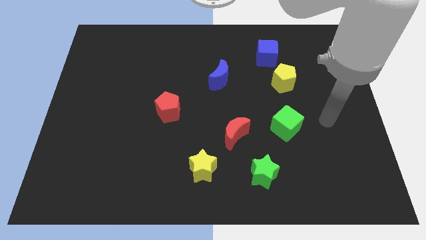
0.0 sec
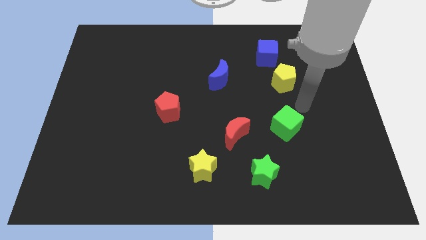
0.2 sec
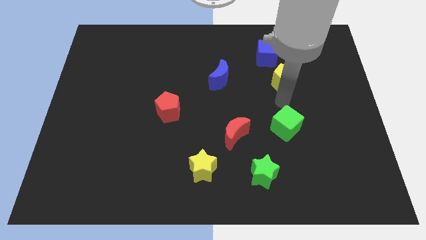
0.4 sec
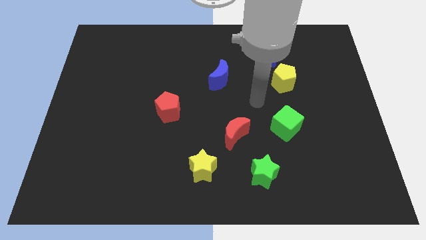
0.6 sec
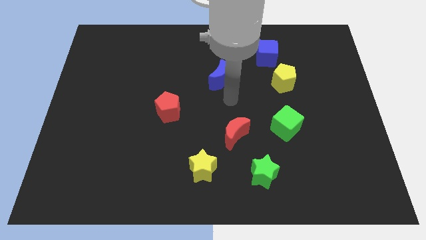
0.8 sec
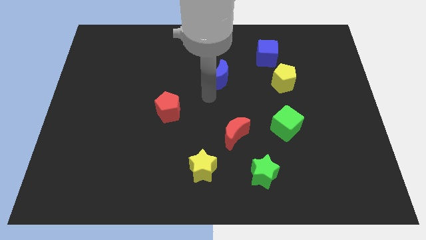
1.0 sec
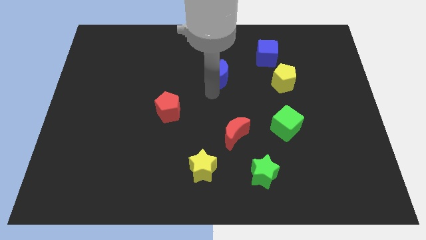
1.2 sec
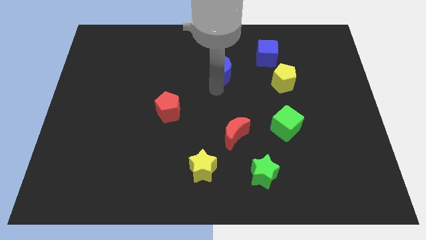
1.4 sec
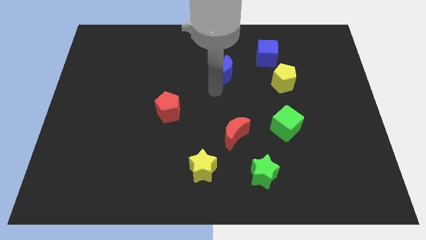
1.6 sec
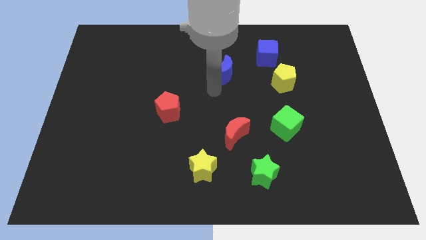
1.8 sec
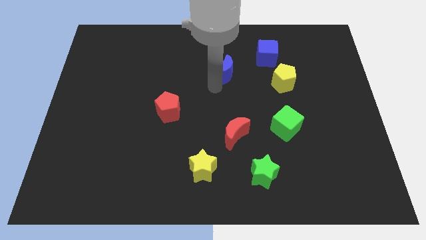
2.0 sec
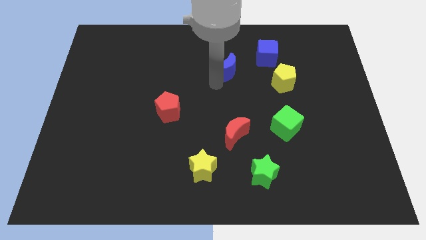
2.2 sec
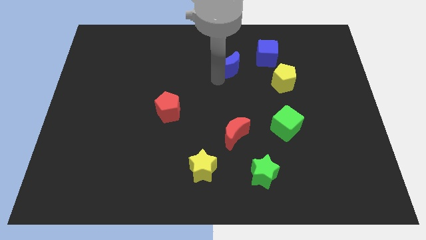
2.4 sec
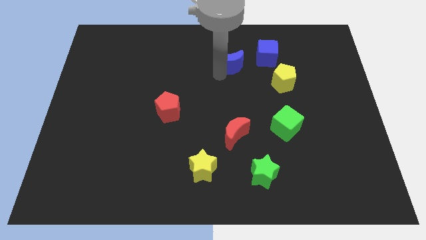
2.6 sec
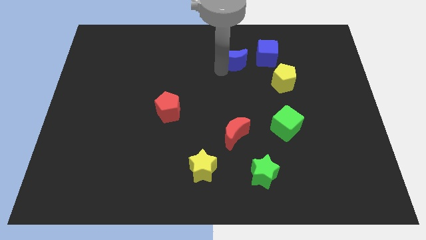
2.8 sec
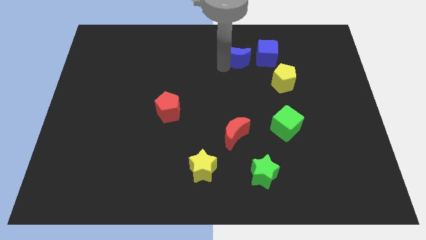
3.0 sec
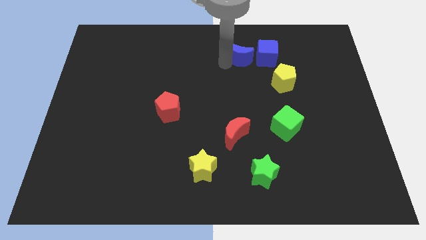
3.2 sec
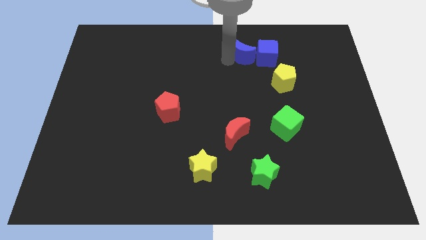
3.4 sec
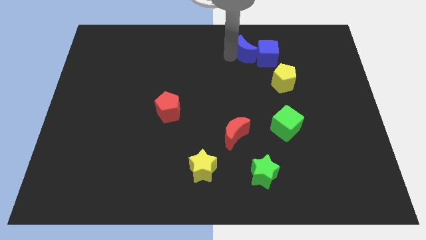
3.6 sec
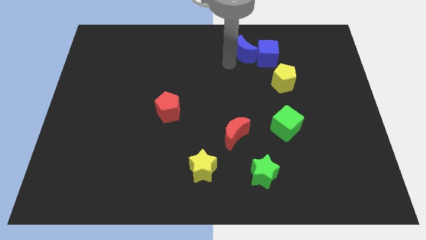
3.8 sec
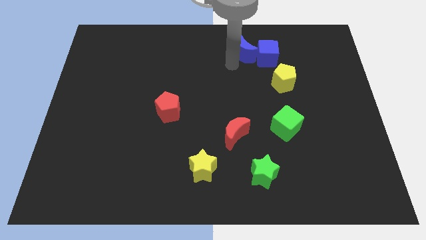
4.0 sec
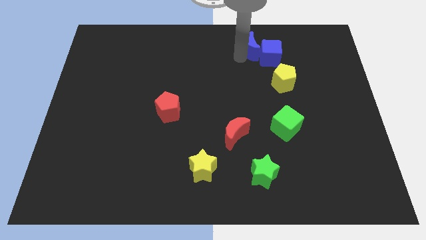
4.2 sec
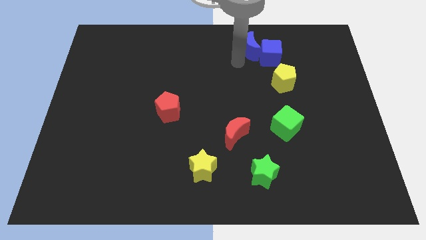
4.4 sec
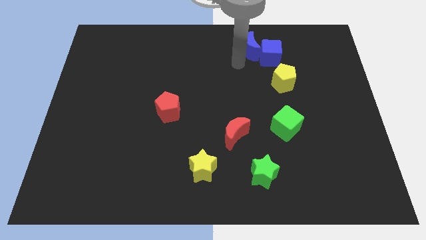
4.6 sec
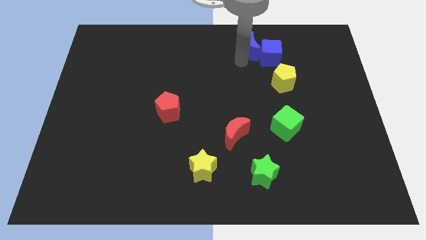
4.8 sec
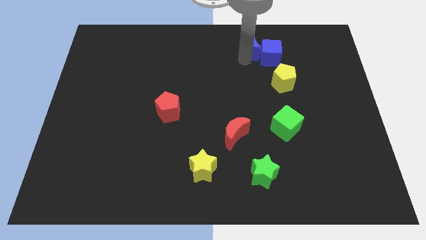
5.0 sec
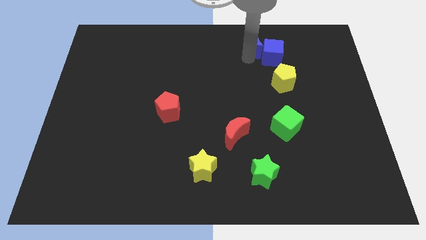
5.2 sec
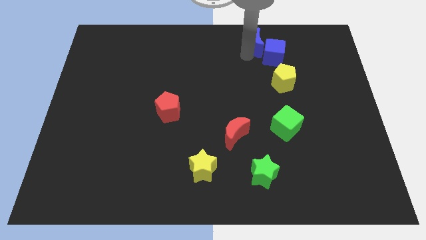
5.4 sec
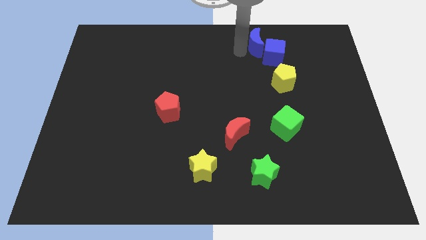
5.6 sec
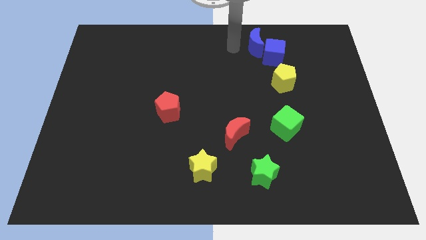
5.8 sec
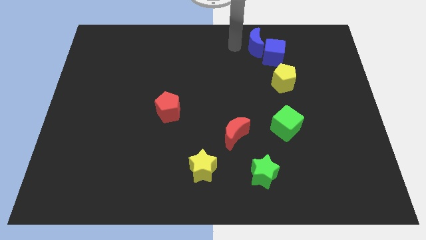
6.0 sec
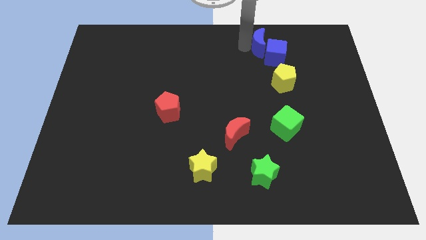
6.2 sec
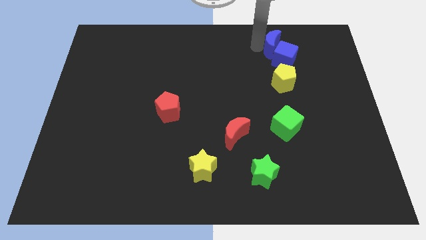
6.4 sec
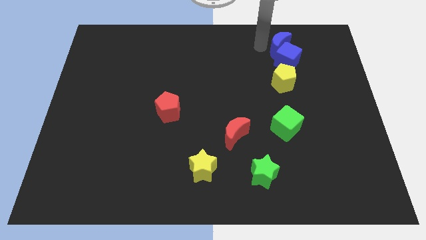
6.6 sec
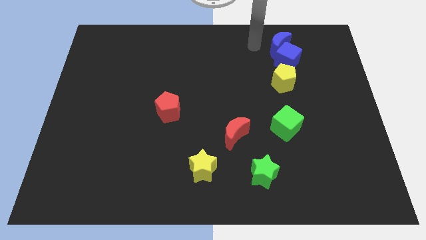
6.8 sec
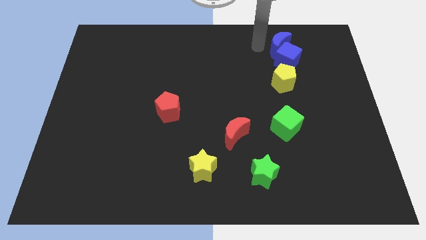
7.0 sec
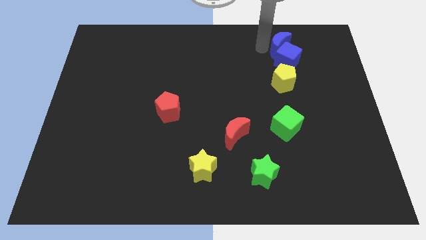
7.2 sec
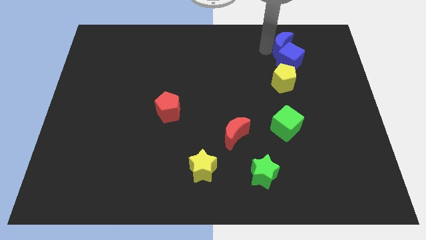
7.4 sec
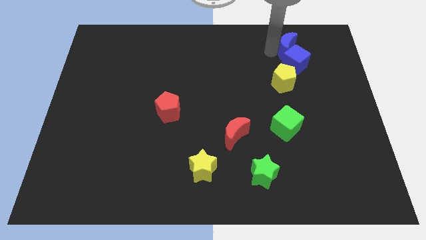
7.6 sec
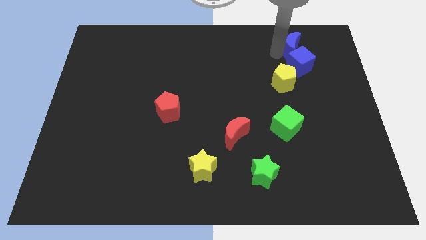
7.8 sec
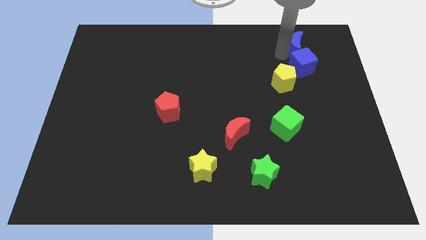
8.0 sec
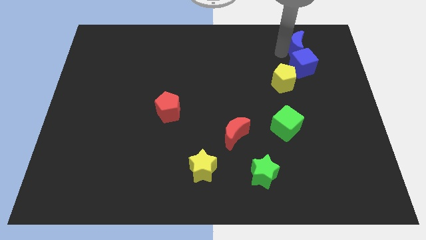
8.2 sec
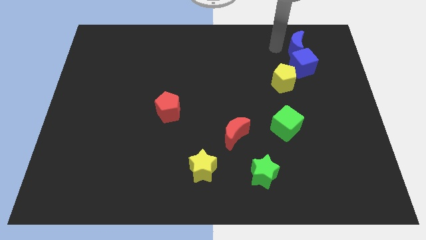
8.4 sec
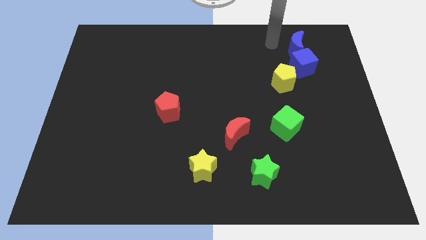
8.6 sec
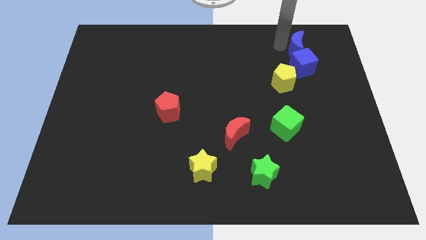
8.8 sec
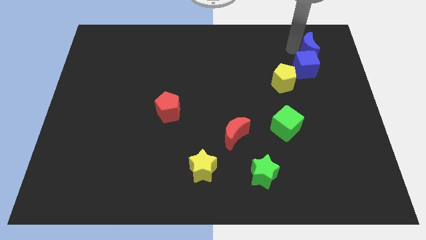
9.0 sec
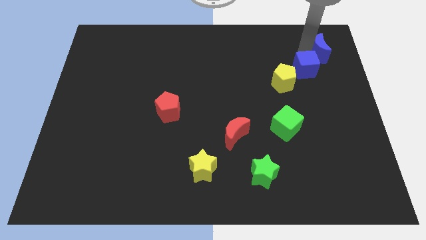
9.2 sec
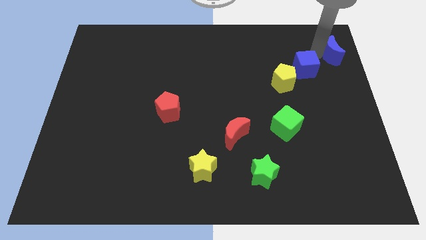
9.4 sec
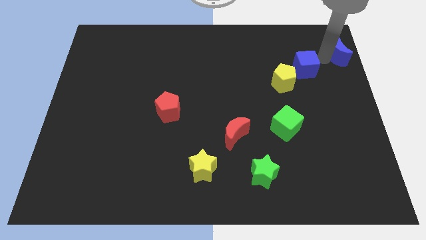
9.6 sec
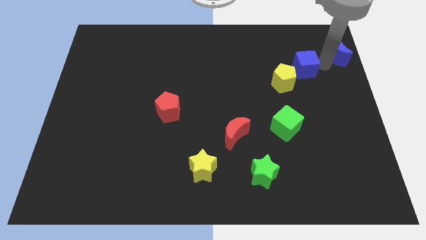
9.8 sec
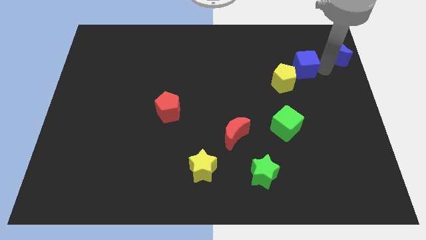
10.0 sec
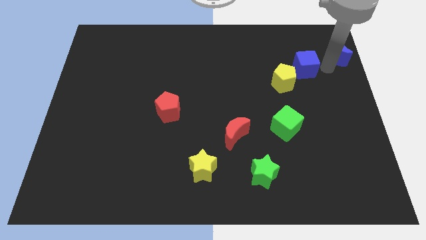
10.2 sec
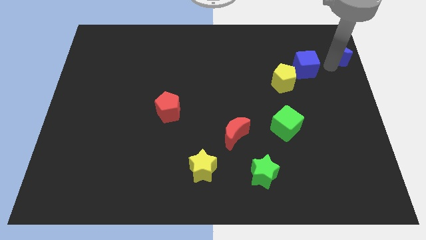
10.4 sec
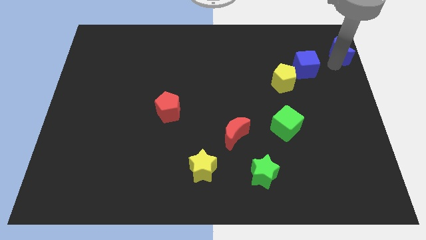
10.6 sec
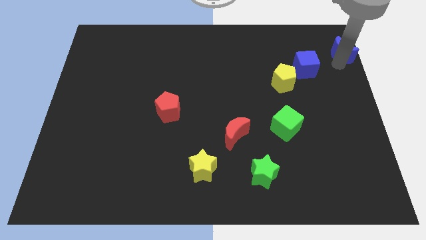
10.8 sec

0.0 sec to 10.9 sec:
slide the blue moon to the top right
